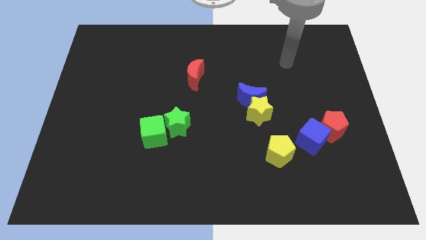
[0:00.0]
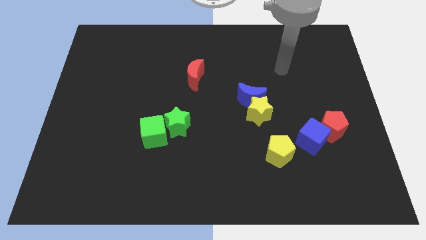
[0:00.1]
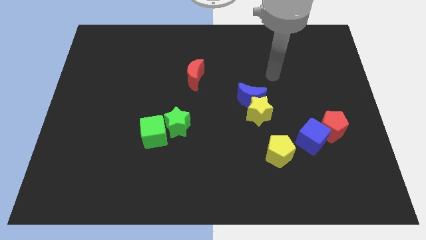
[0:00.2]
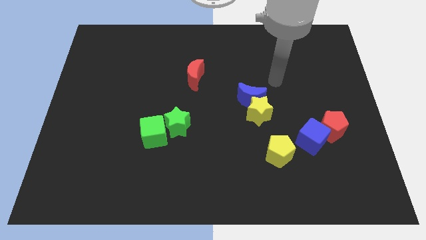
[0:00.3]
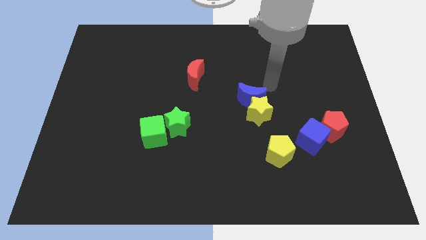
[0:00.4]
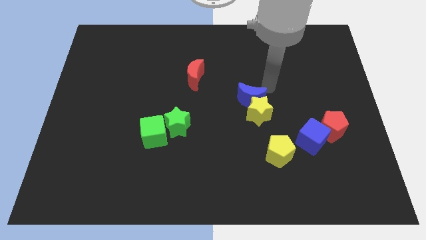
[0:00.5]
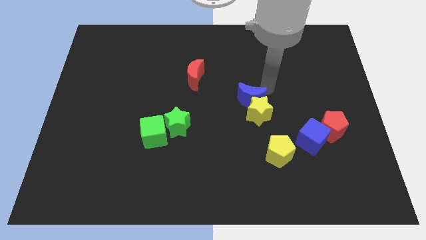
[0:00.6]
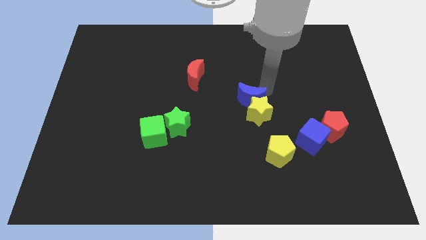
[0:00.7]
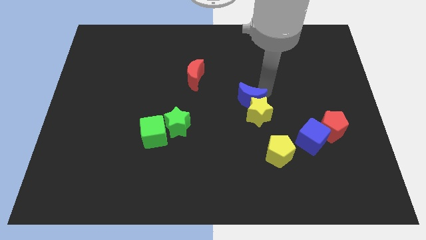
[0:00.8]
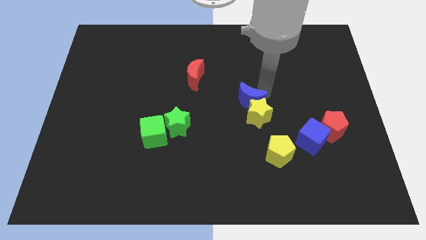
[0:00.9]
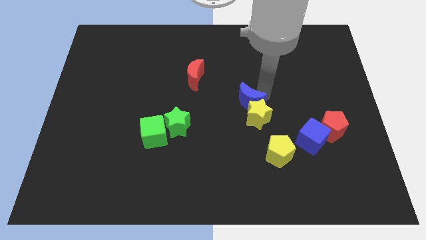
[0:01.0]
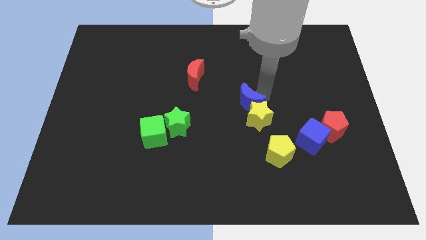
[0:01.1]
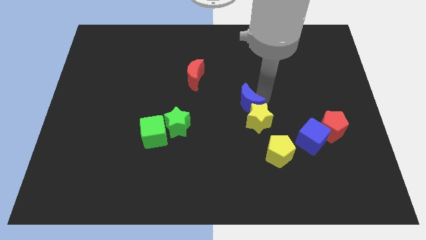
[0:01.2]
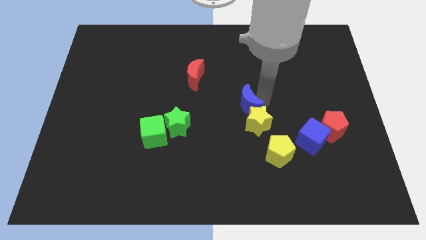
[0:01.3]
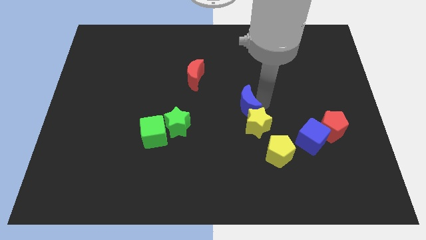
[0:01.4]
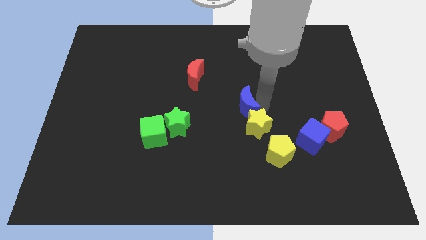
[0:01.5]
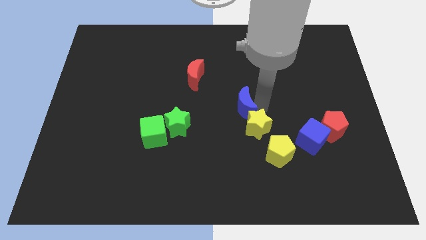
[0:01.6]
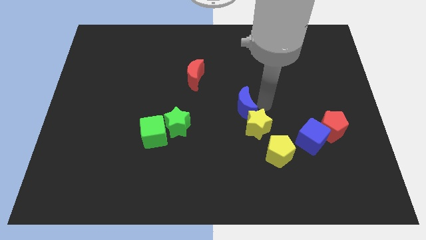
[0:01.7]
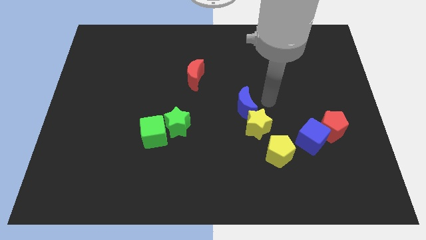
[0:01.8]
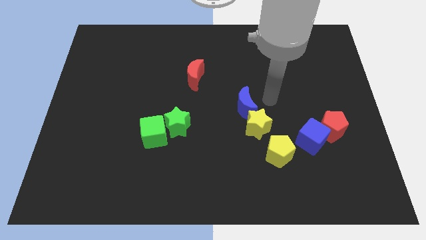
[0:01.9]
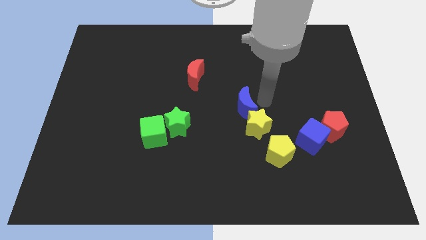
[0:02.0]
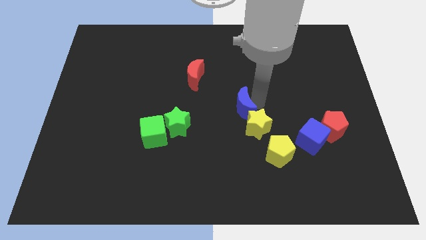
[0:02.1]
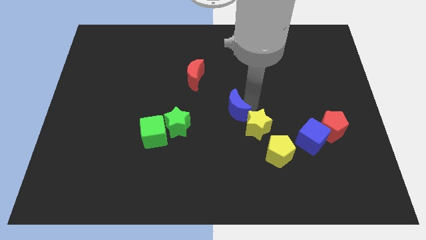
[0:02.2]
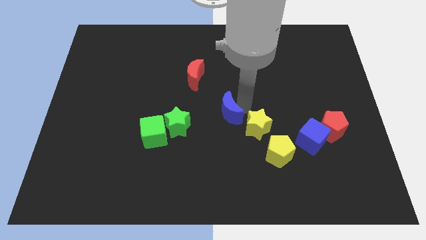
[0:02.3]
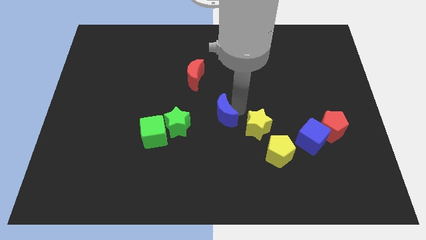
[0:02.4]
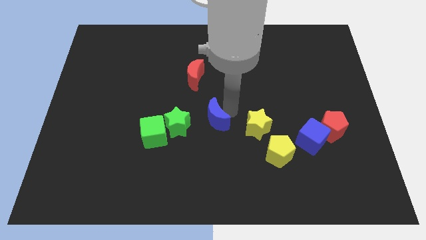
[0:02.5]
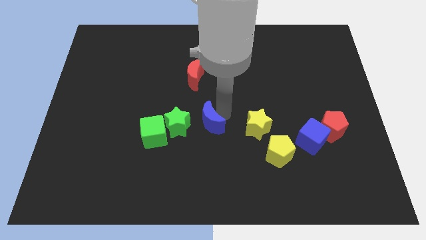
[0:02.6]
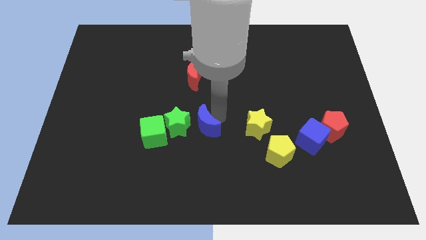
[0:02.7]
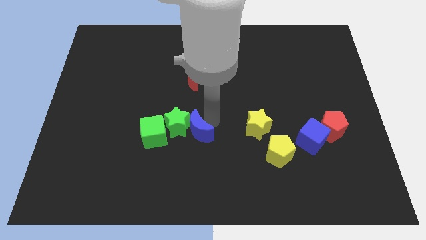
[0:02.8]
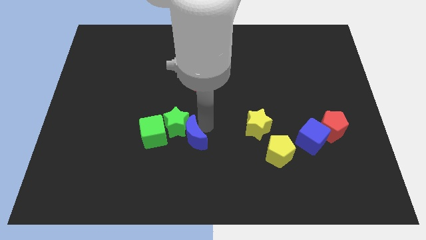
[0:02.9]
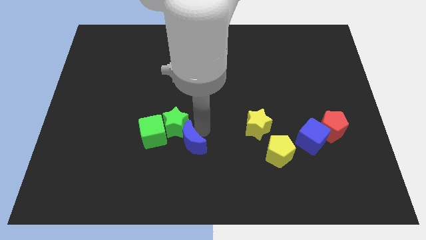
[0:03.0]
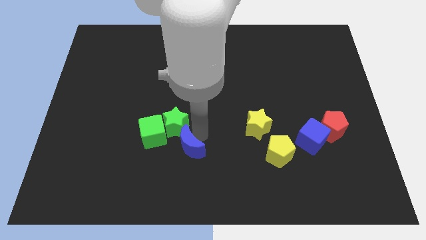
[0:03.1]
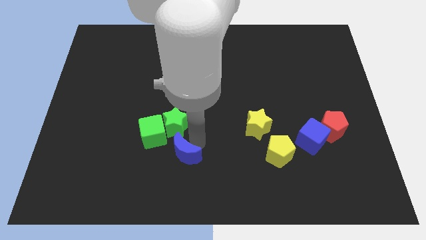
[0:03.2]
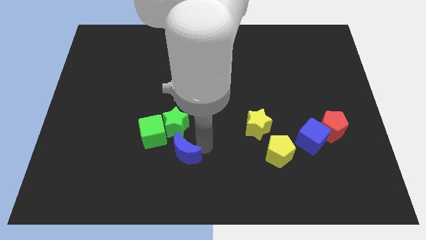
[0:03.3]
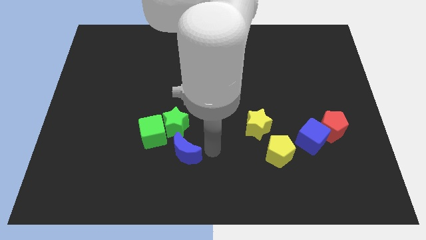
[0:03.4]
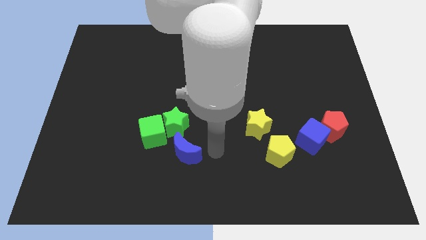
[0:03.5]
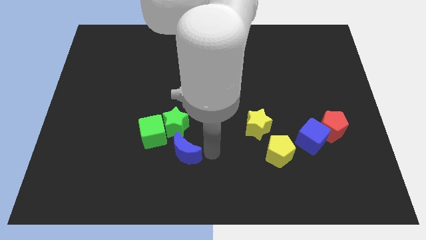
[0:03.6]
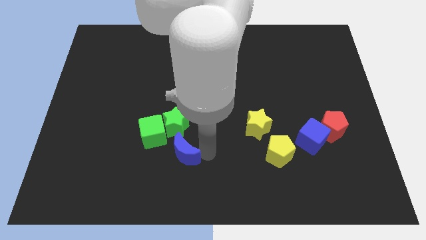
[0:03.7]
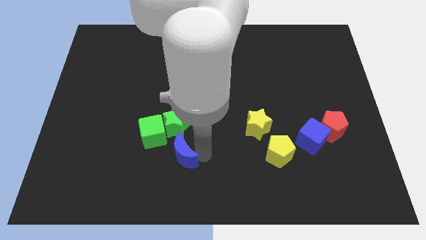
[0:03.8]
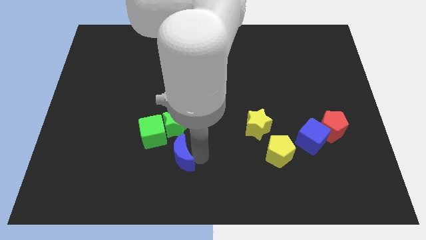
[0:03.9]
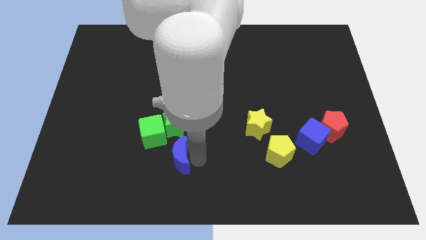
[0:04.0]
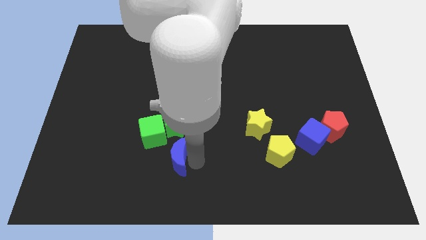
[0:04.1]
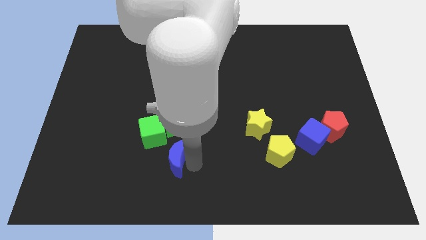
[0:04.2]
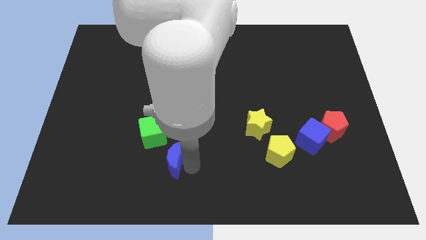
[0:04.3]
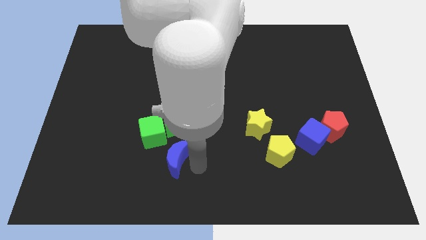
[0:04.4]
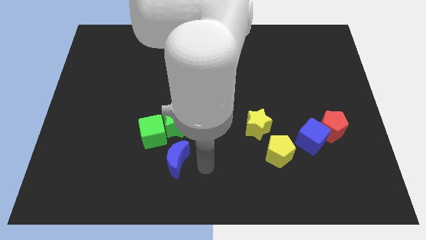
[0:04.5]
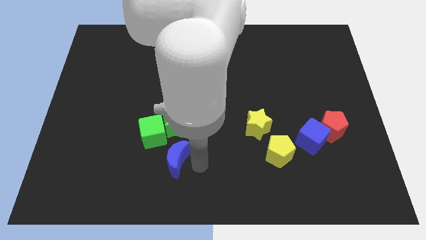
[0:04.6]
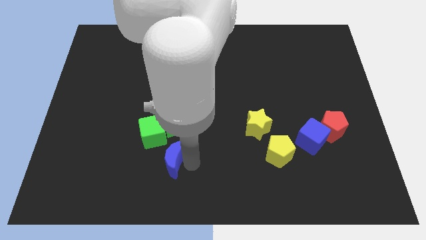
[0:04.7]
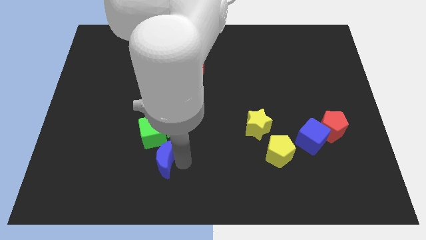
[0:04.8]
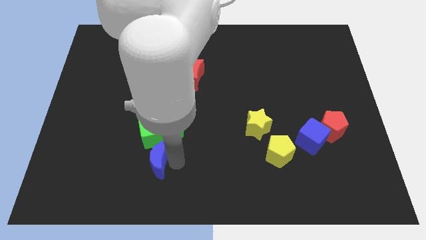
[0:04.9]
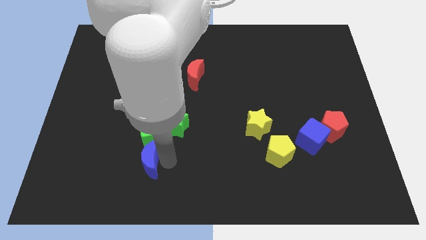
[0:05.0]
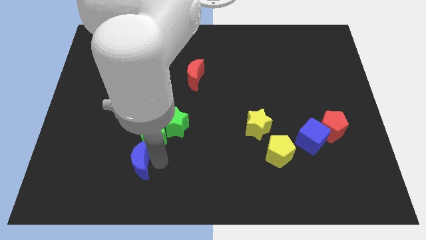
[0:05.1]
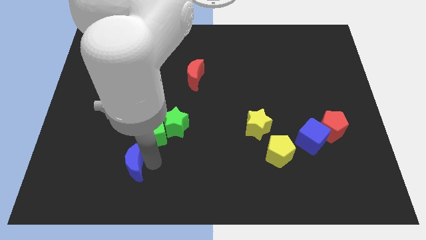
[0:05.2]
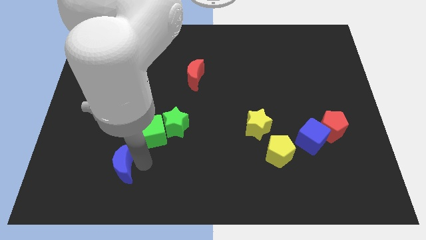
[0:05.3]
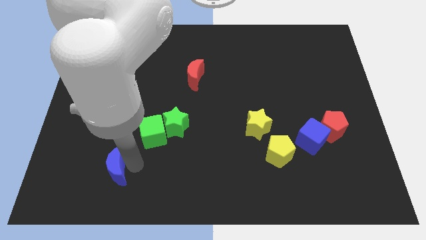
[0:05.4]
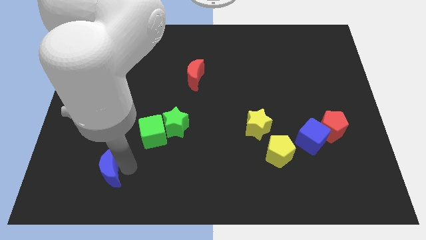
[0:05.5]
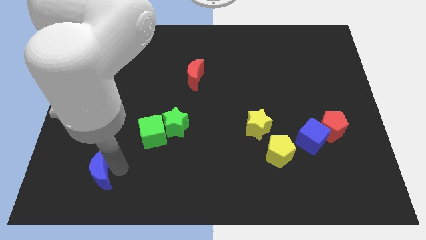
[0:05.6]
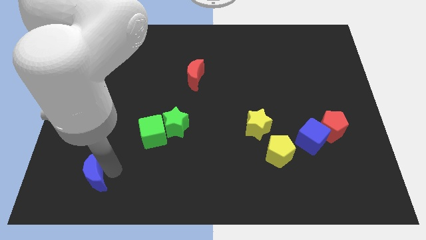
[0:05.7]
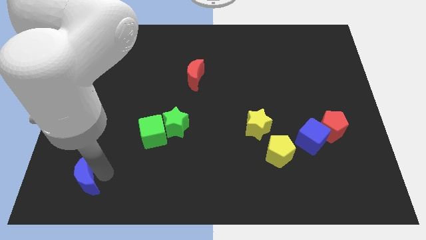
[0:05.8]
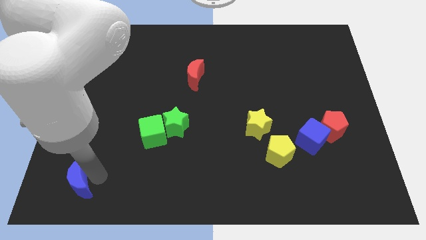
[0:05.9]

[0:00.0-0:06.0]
slide the blue moon to the bottom left of the board

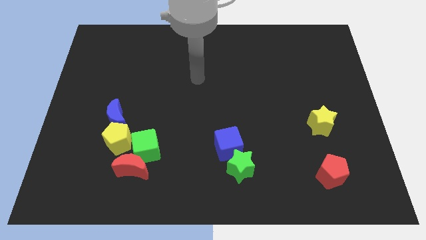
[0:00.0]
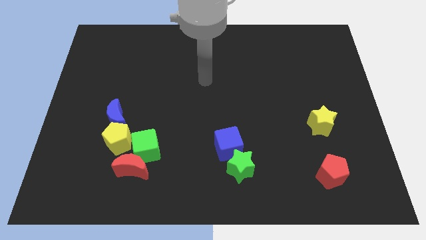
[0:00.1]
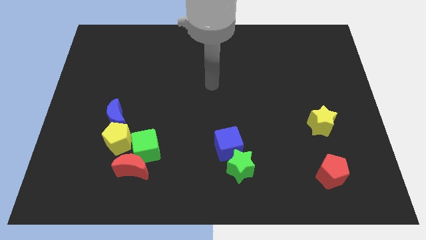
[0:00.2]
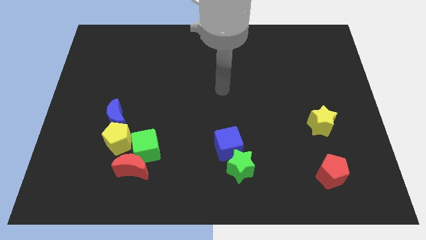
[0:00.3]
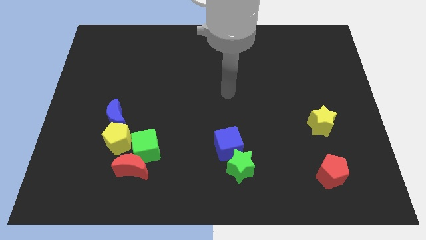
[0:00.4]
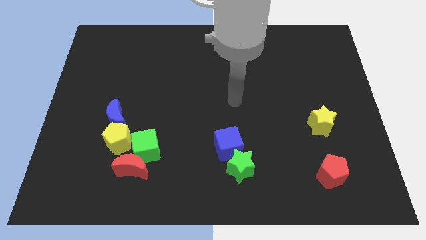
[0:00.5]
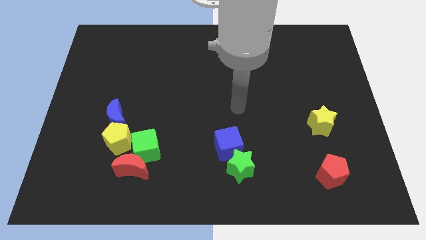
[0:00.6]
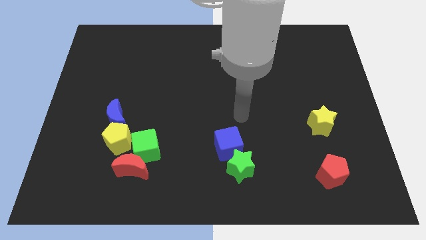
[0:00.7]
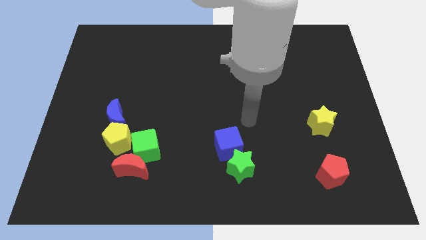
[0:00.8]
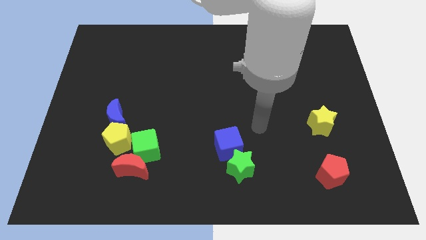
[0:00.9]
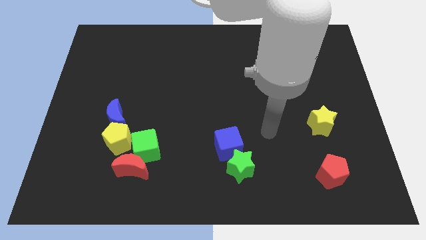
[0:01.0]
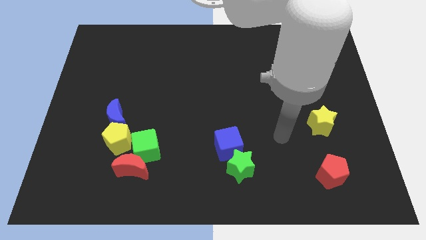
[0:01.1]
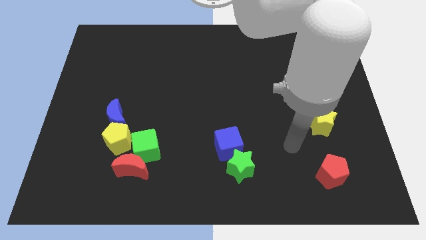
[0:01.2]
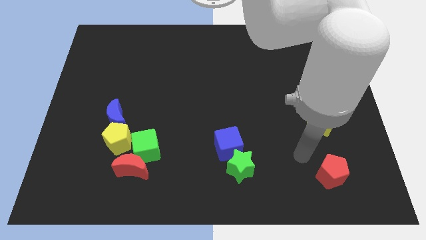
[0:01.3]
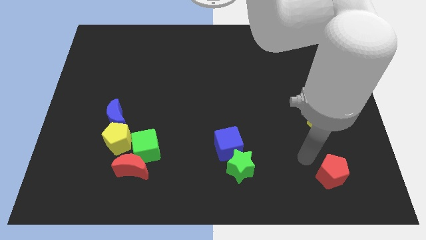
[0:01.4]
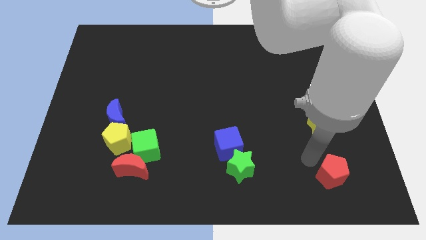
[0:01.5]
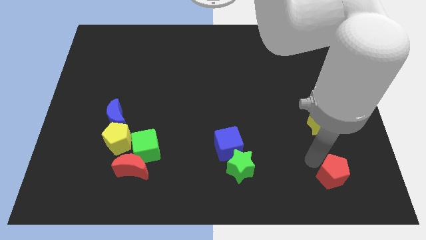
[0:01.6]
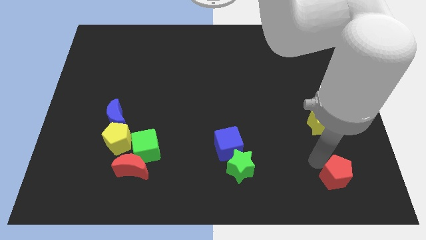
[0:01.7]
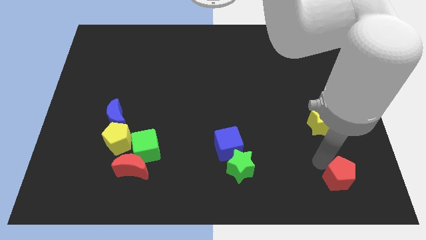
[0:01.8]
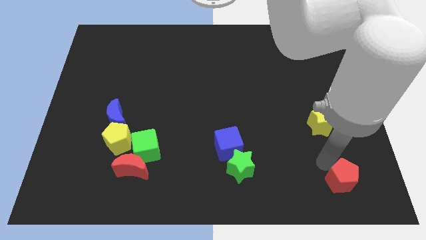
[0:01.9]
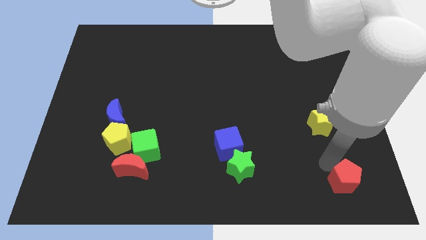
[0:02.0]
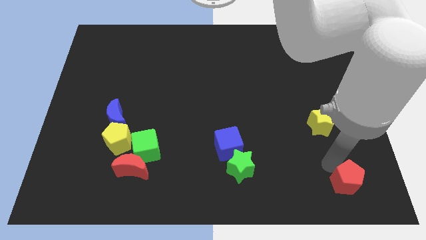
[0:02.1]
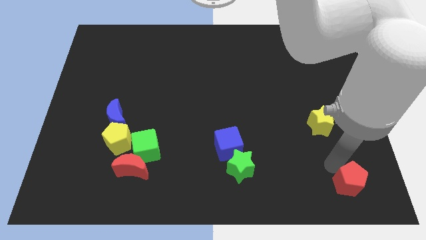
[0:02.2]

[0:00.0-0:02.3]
move the red pentagon to the bottom right of the board
